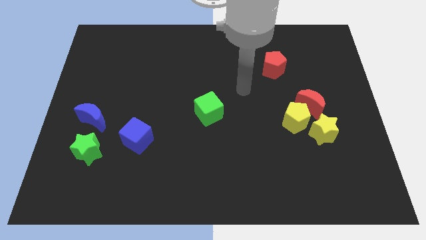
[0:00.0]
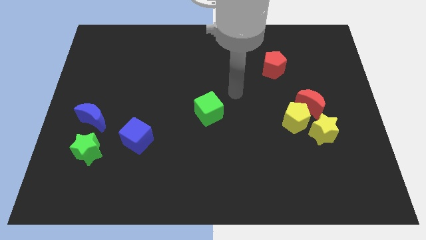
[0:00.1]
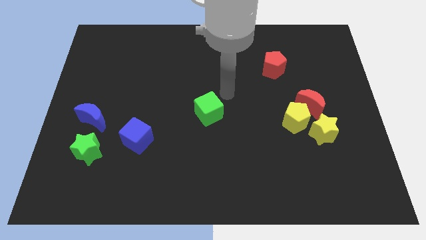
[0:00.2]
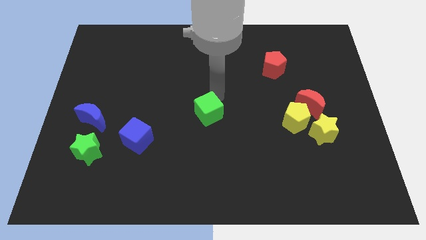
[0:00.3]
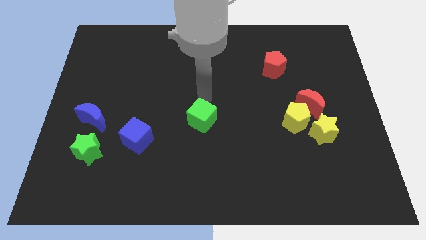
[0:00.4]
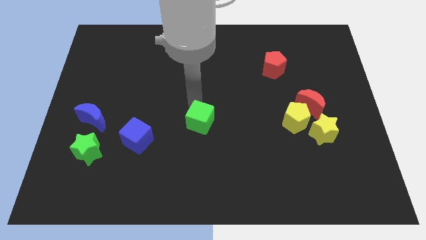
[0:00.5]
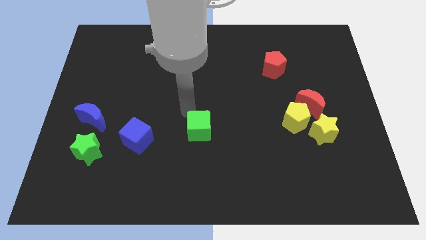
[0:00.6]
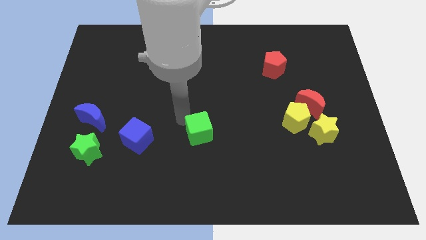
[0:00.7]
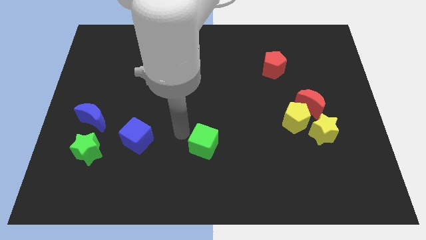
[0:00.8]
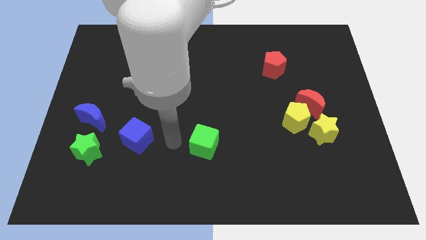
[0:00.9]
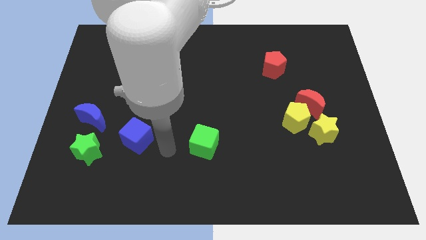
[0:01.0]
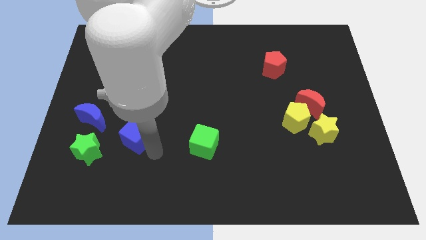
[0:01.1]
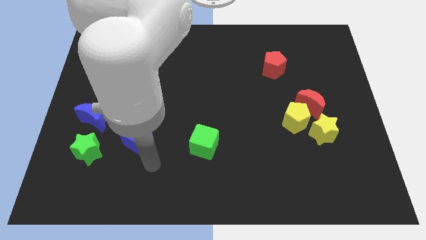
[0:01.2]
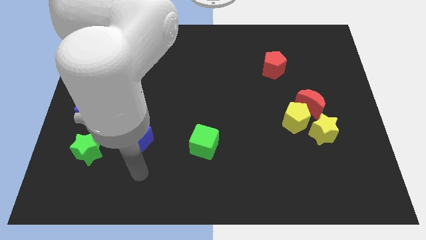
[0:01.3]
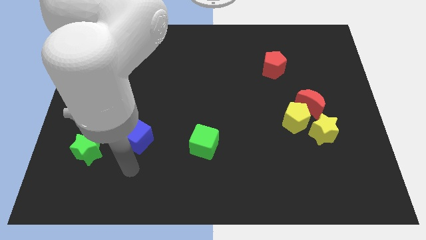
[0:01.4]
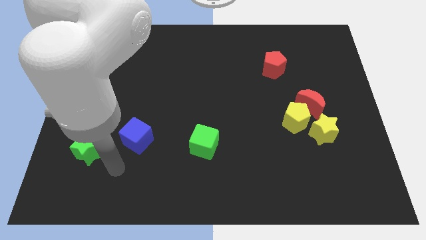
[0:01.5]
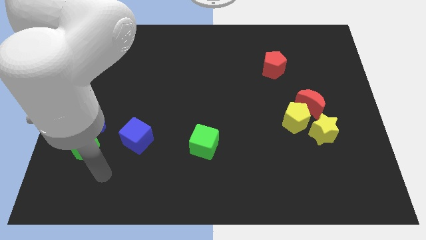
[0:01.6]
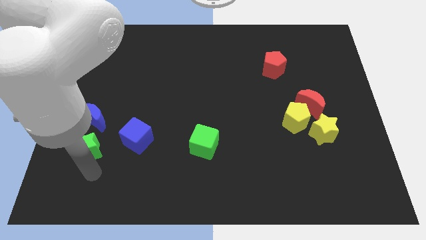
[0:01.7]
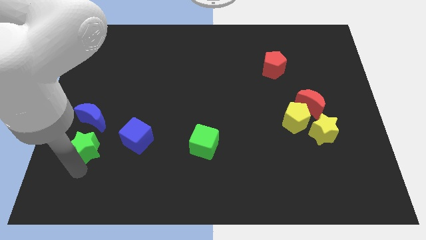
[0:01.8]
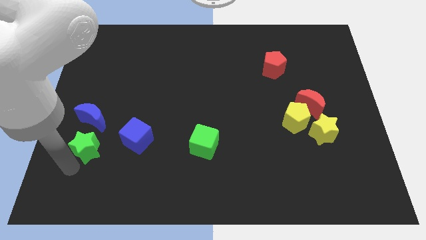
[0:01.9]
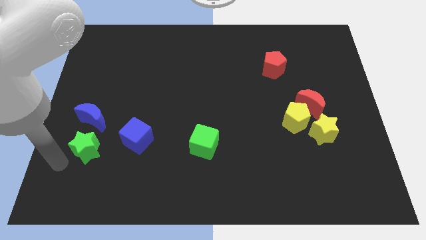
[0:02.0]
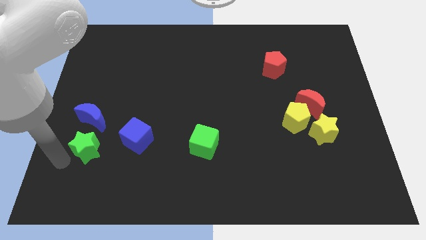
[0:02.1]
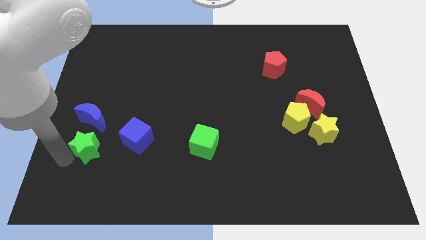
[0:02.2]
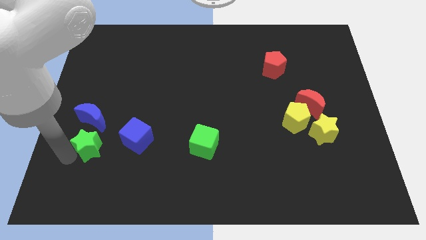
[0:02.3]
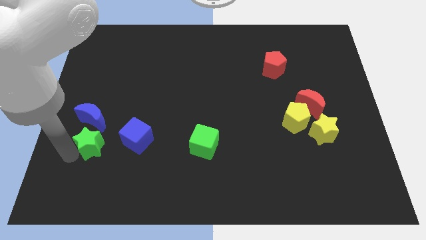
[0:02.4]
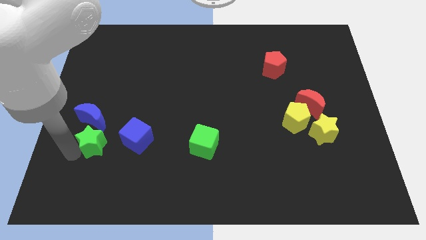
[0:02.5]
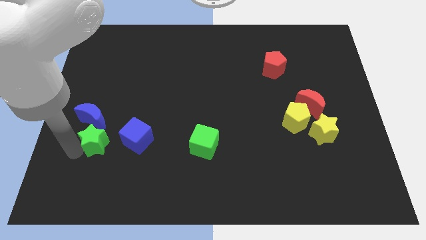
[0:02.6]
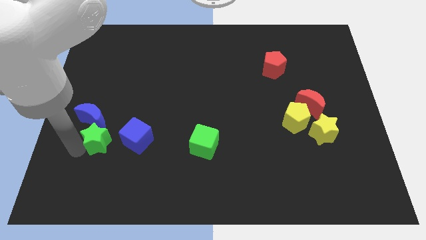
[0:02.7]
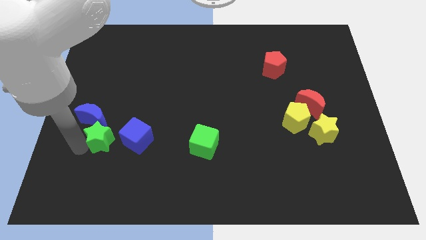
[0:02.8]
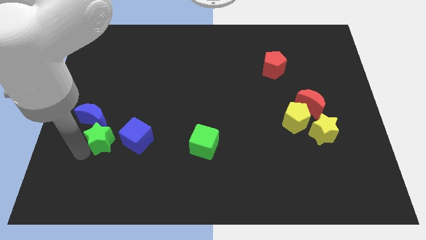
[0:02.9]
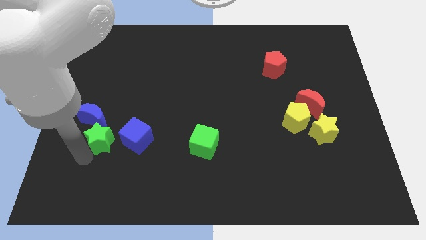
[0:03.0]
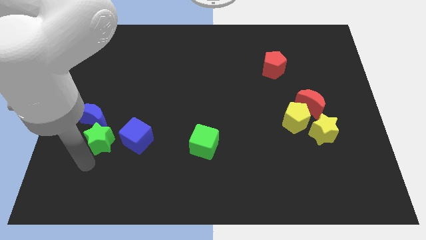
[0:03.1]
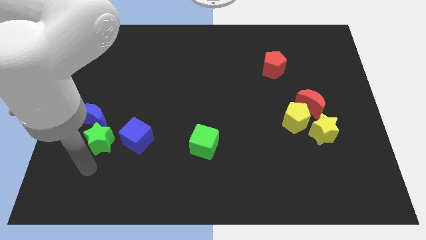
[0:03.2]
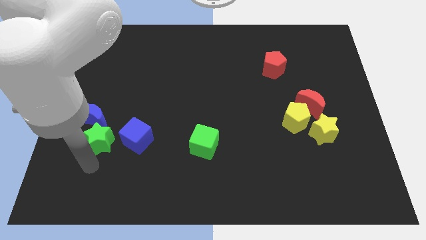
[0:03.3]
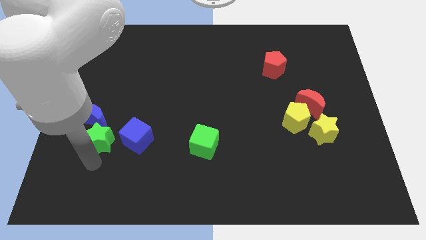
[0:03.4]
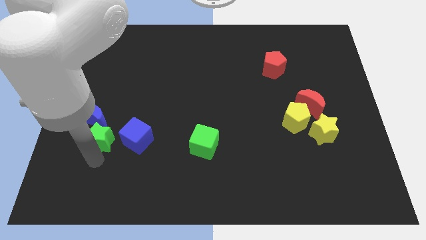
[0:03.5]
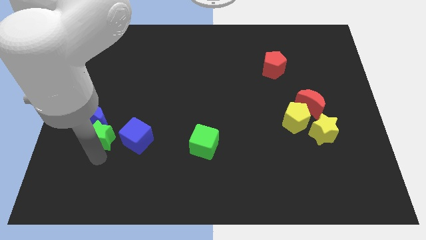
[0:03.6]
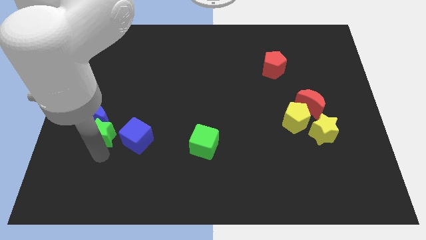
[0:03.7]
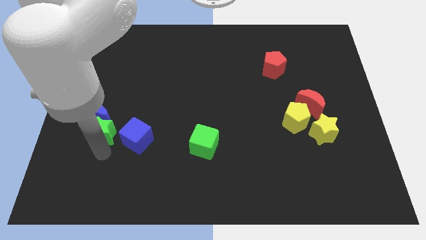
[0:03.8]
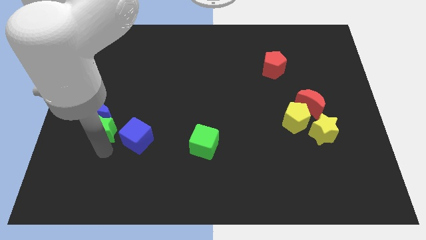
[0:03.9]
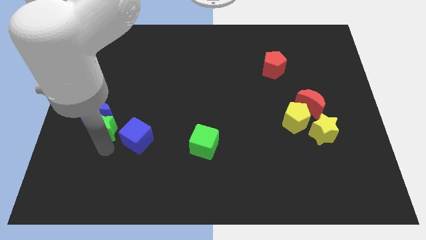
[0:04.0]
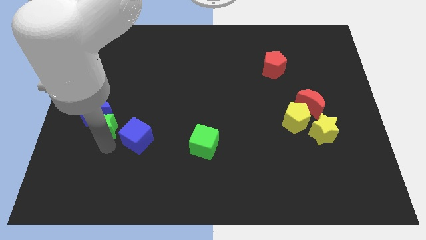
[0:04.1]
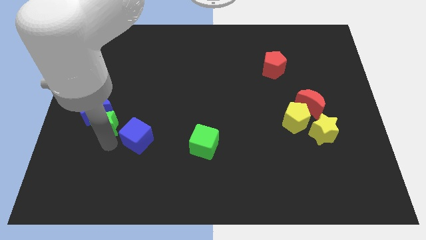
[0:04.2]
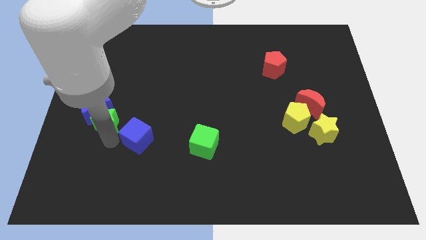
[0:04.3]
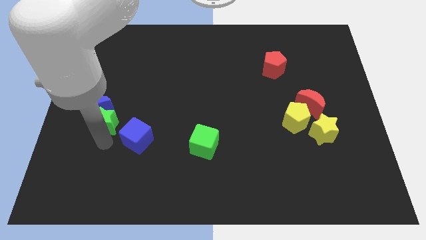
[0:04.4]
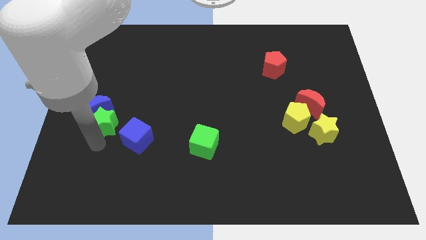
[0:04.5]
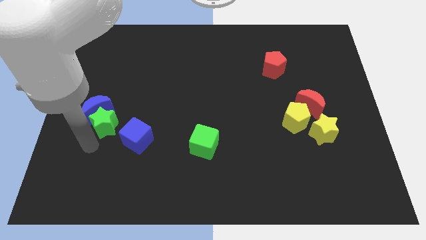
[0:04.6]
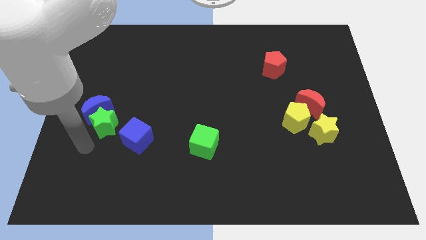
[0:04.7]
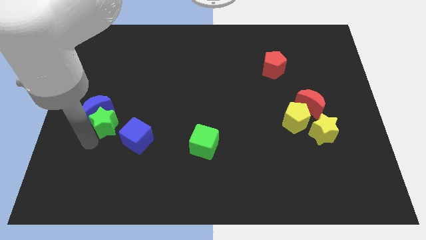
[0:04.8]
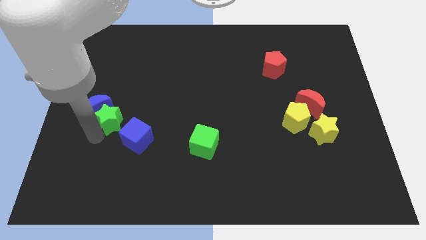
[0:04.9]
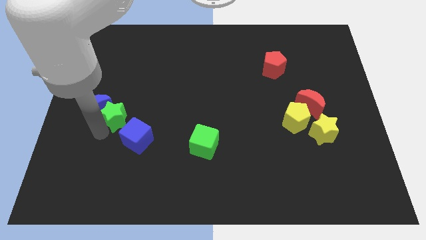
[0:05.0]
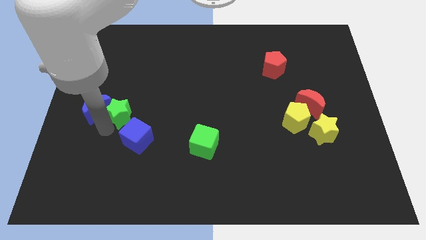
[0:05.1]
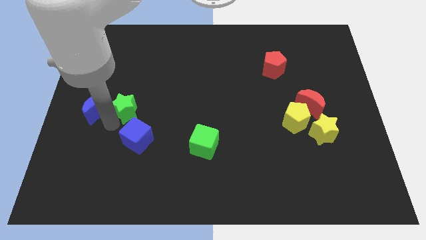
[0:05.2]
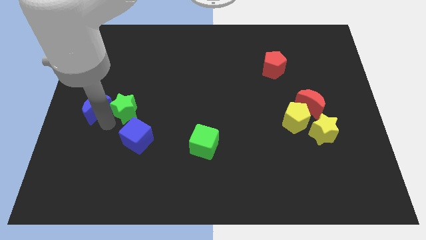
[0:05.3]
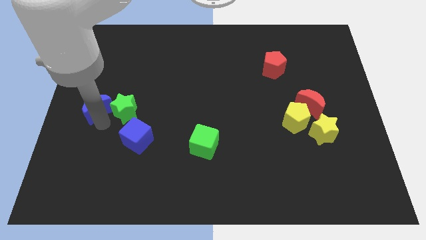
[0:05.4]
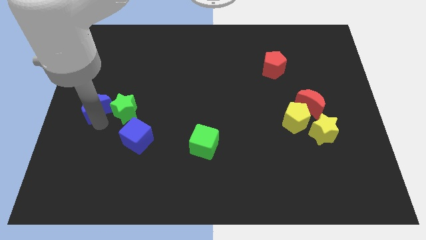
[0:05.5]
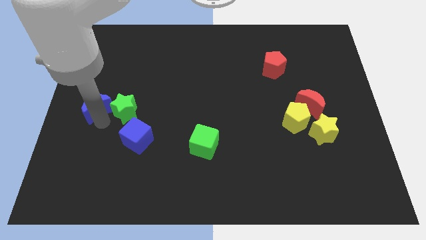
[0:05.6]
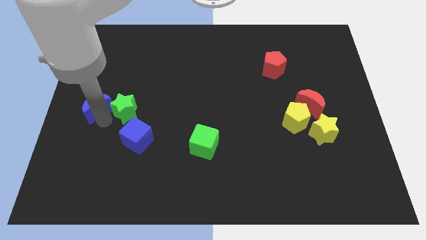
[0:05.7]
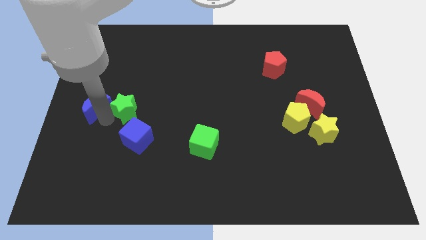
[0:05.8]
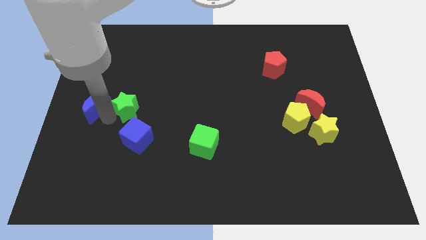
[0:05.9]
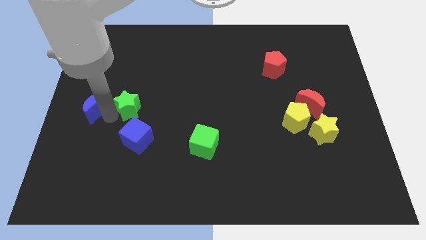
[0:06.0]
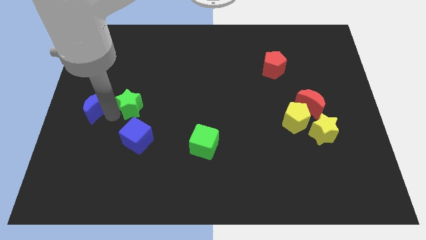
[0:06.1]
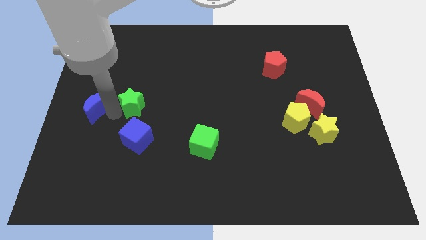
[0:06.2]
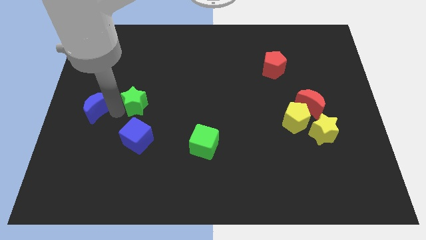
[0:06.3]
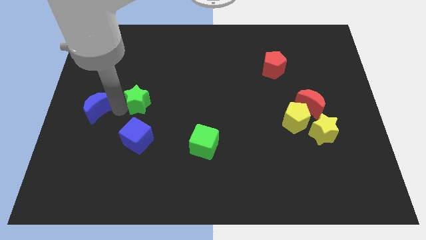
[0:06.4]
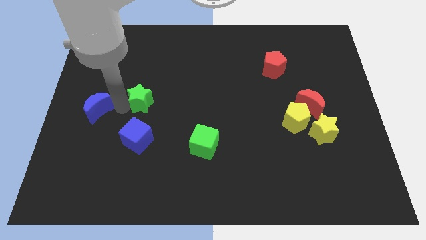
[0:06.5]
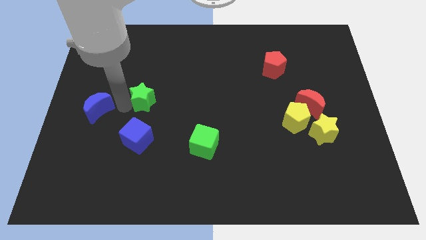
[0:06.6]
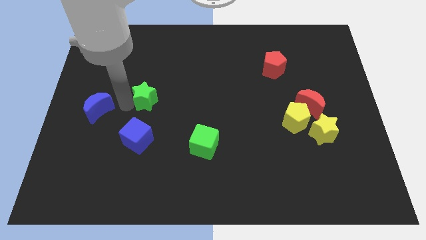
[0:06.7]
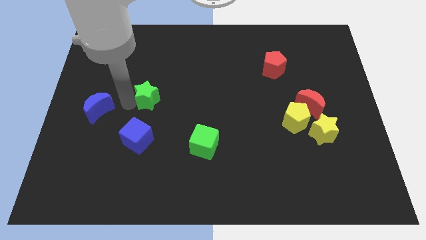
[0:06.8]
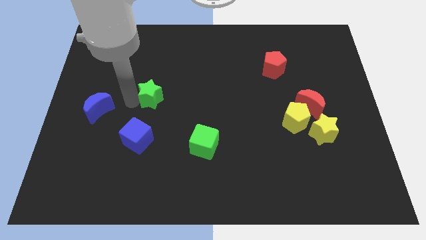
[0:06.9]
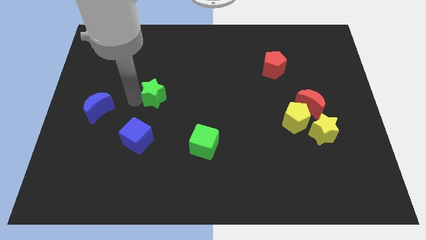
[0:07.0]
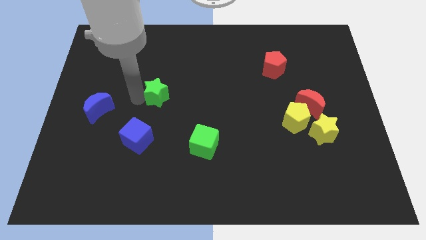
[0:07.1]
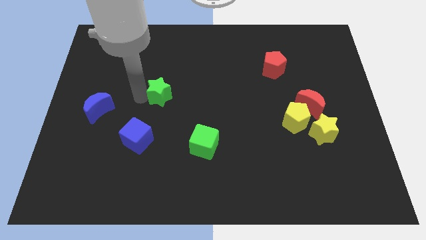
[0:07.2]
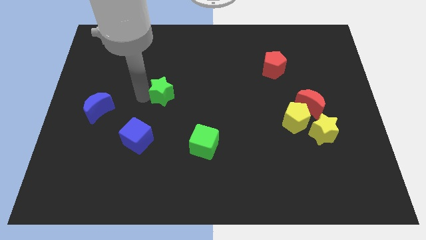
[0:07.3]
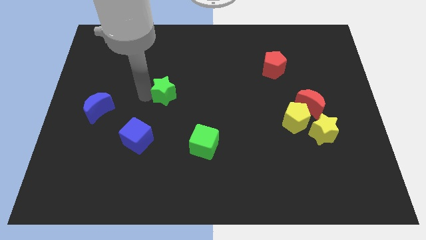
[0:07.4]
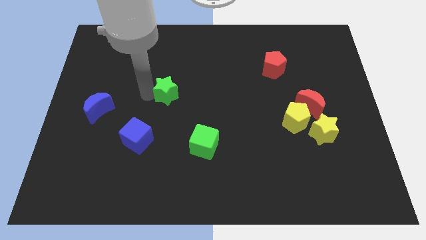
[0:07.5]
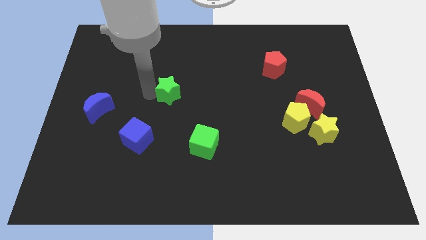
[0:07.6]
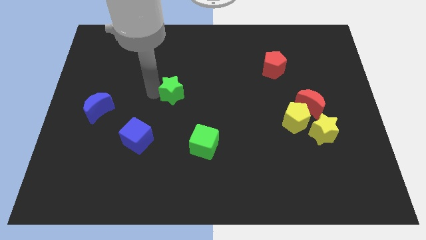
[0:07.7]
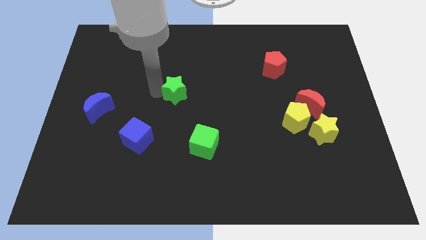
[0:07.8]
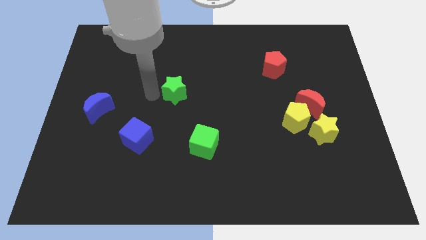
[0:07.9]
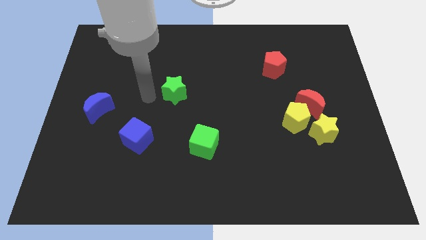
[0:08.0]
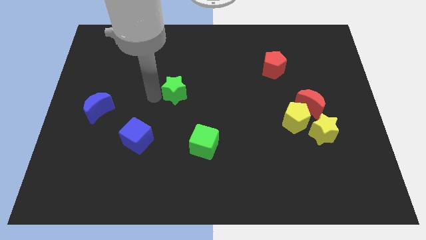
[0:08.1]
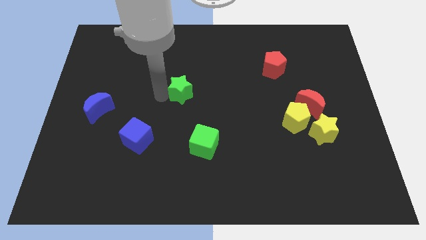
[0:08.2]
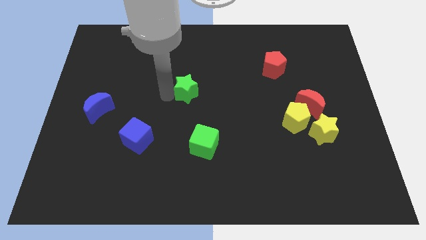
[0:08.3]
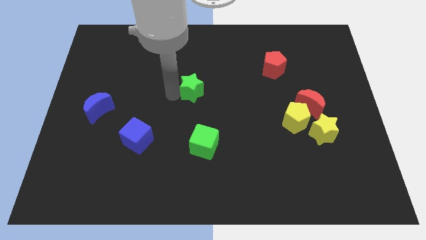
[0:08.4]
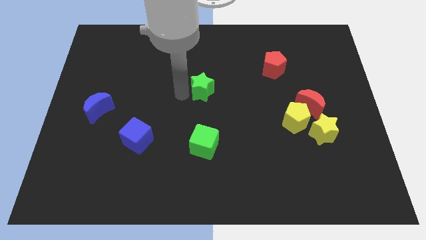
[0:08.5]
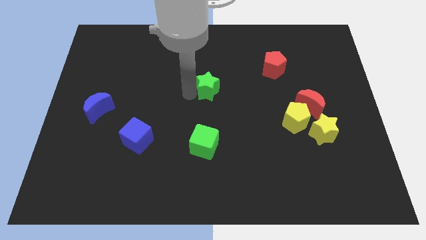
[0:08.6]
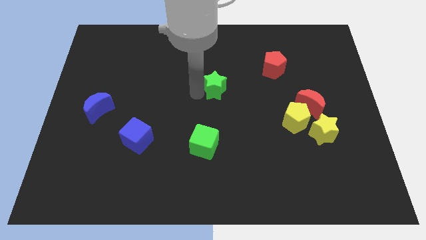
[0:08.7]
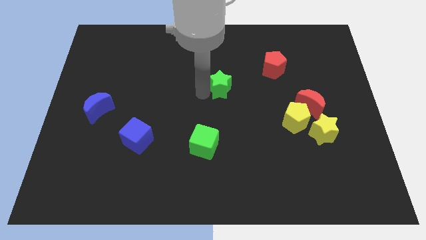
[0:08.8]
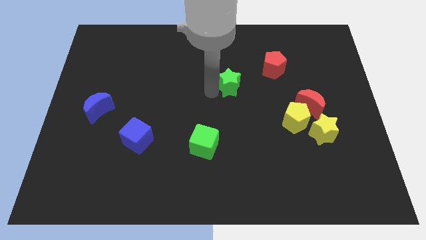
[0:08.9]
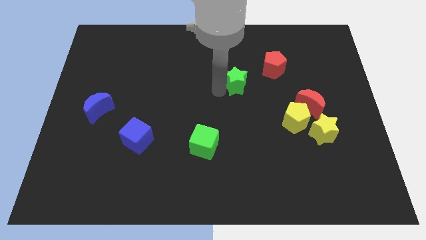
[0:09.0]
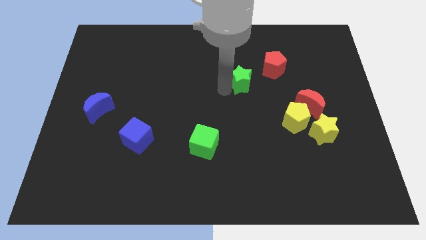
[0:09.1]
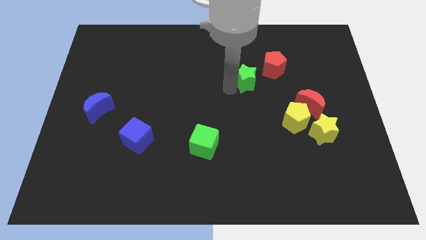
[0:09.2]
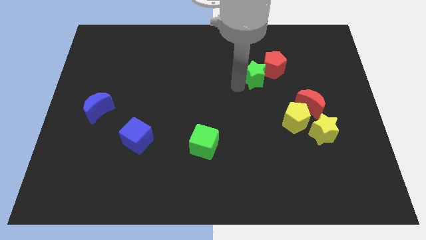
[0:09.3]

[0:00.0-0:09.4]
move the green star next to the red pentagon
